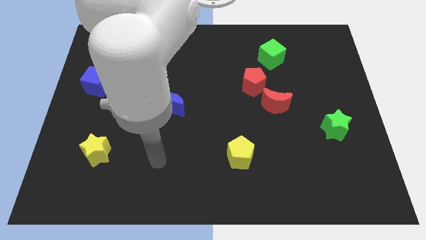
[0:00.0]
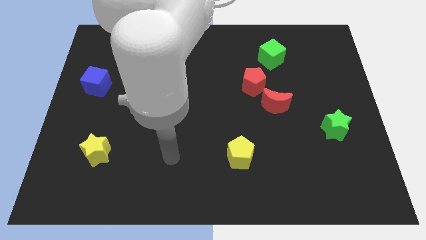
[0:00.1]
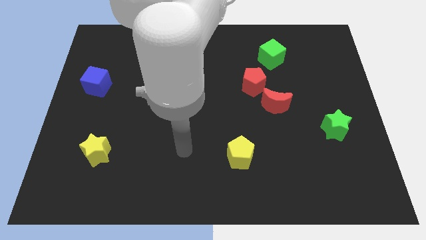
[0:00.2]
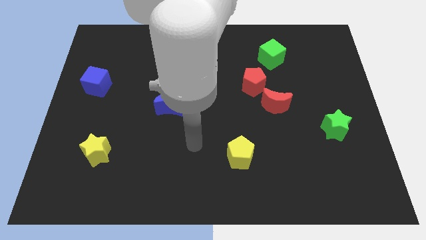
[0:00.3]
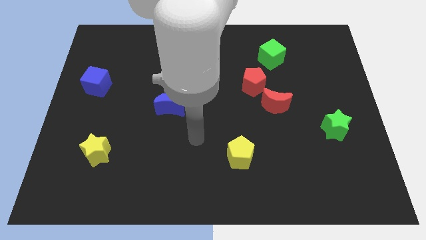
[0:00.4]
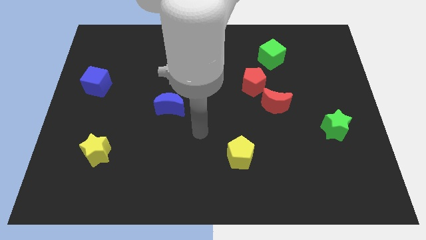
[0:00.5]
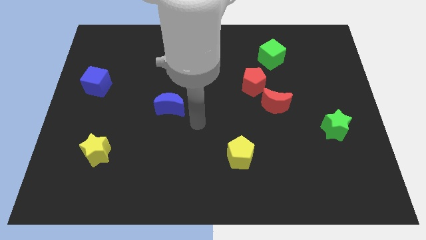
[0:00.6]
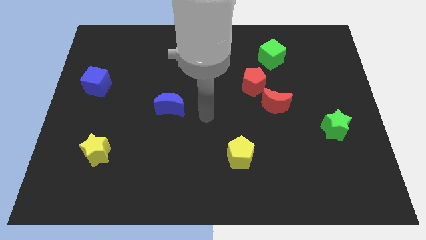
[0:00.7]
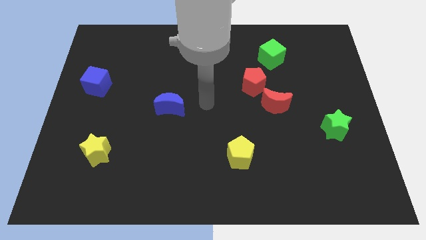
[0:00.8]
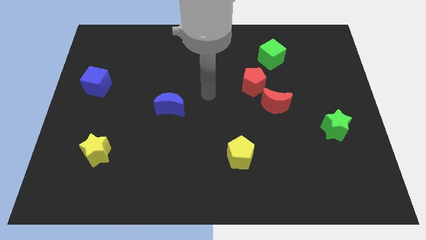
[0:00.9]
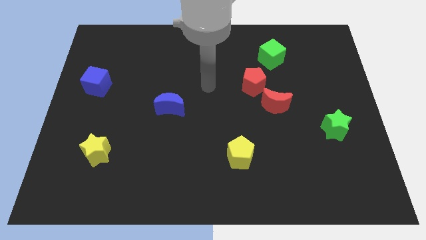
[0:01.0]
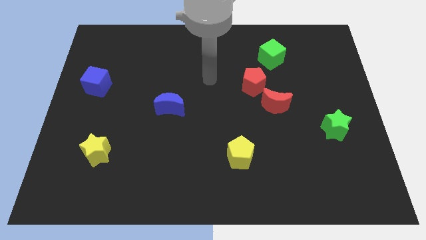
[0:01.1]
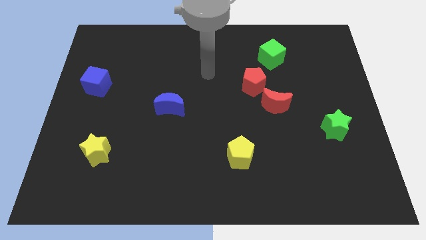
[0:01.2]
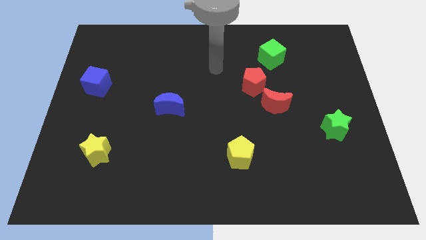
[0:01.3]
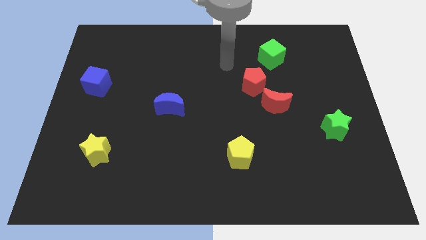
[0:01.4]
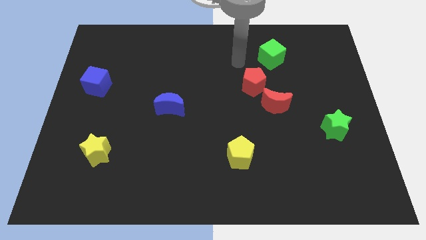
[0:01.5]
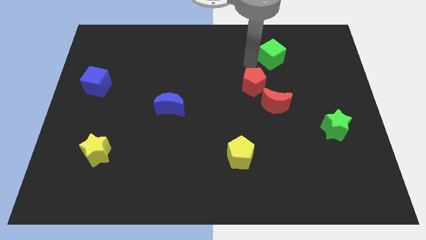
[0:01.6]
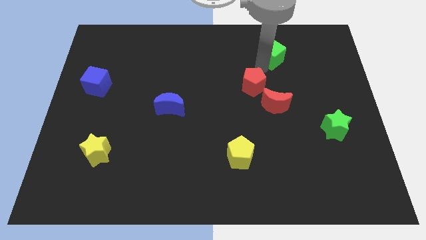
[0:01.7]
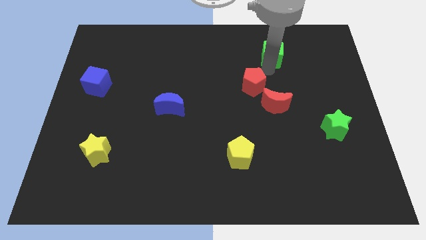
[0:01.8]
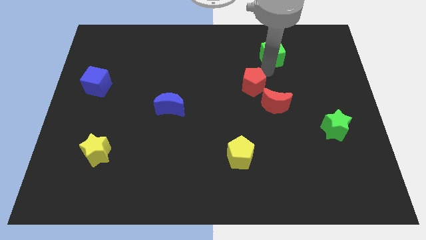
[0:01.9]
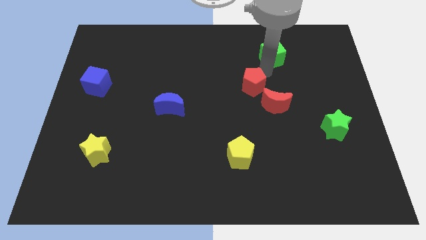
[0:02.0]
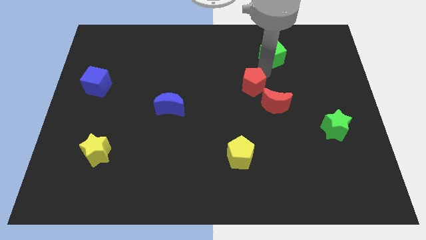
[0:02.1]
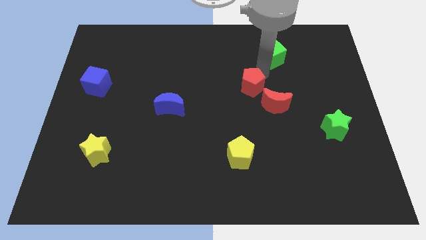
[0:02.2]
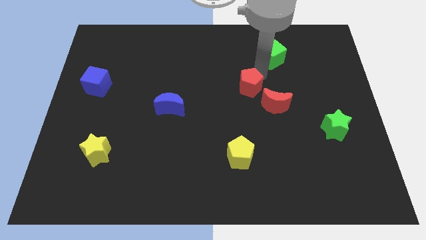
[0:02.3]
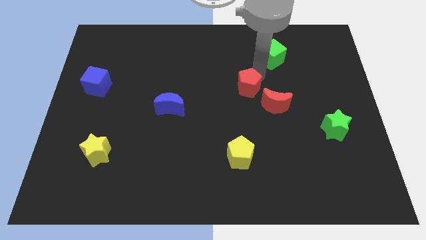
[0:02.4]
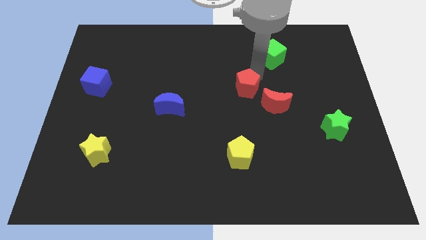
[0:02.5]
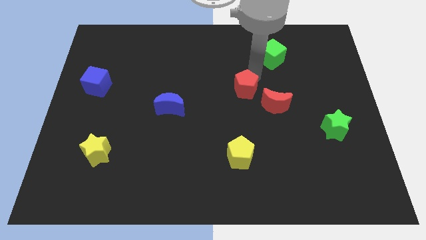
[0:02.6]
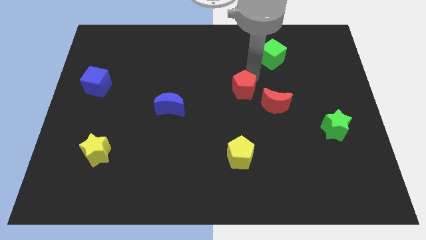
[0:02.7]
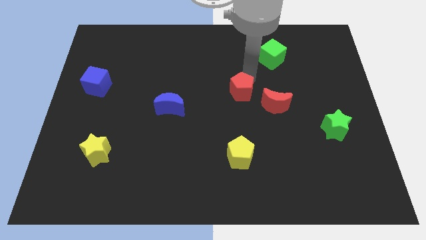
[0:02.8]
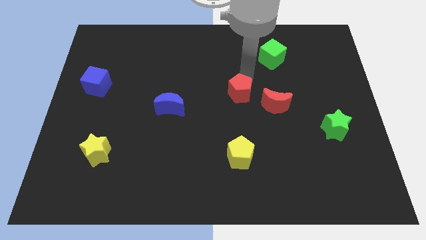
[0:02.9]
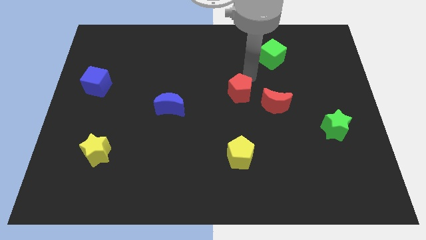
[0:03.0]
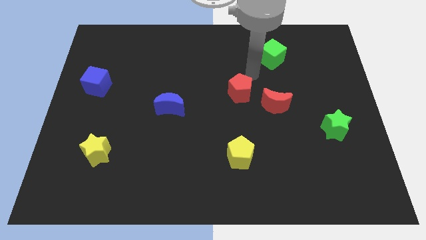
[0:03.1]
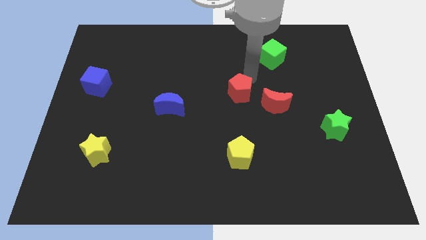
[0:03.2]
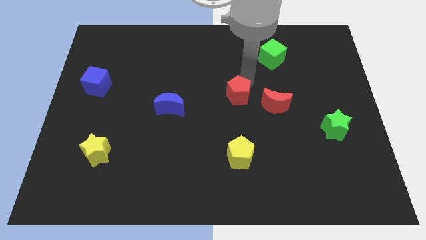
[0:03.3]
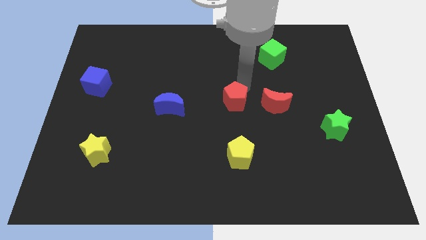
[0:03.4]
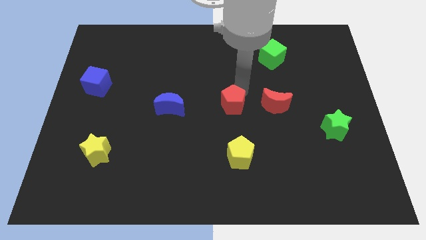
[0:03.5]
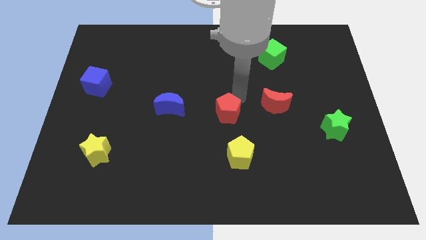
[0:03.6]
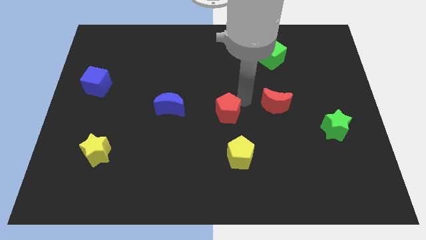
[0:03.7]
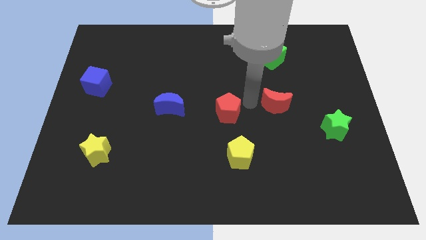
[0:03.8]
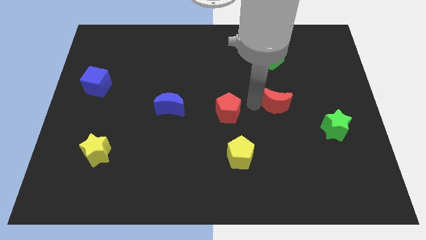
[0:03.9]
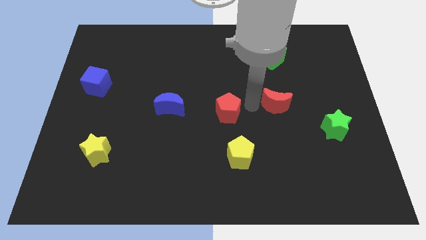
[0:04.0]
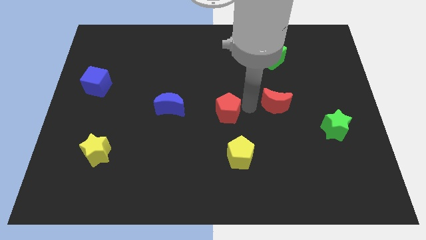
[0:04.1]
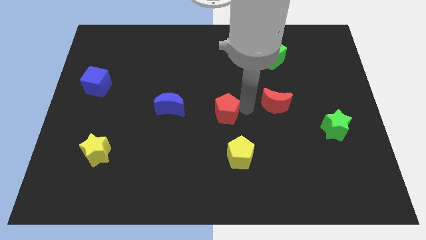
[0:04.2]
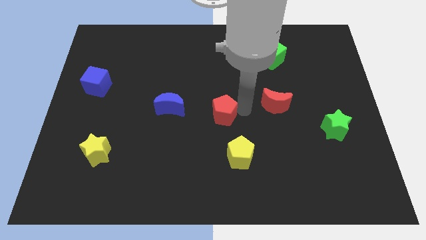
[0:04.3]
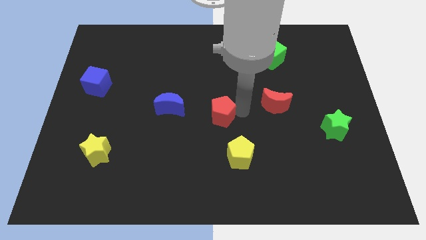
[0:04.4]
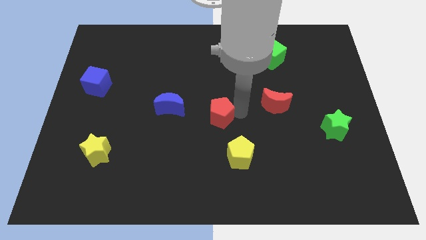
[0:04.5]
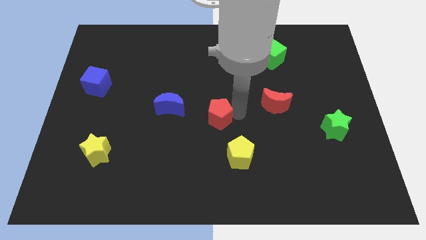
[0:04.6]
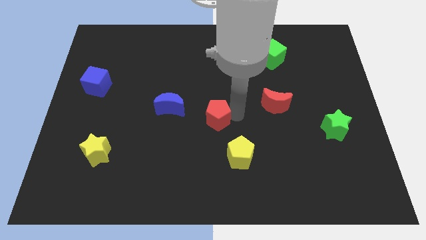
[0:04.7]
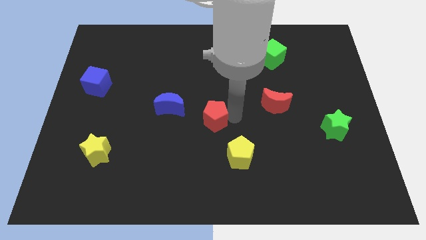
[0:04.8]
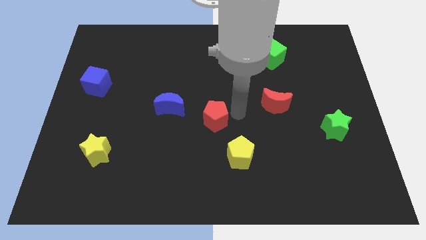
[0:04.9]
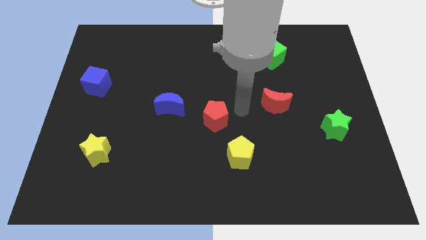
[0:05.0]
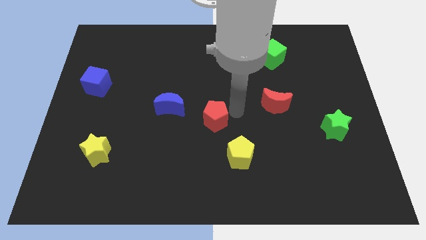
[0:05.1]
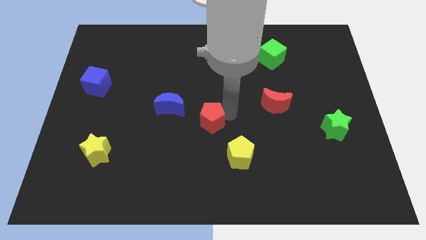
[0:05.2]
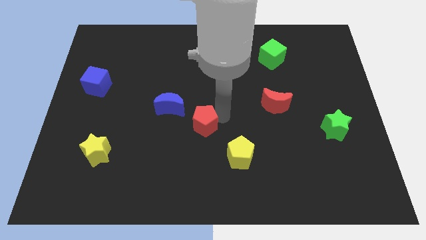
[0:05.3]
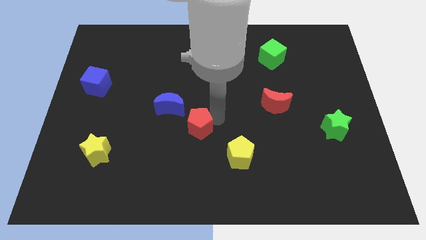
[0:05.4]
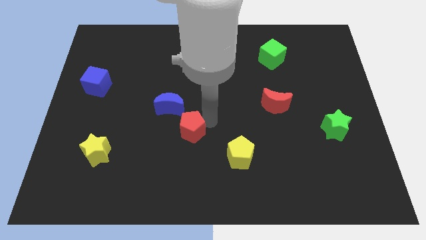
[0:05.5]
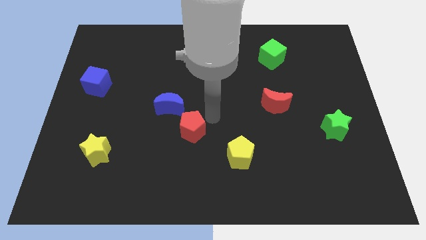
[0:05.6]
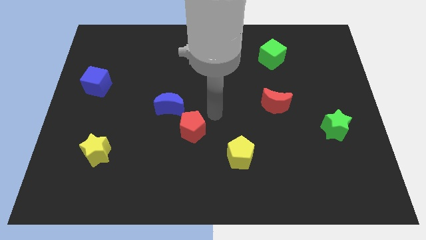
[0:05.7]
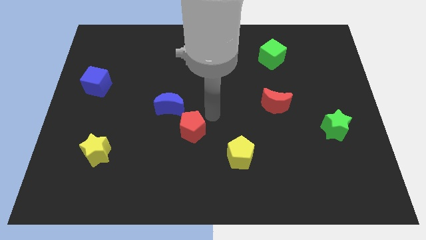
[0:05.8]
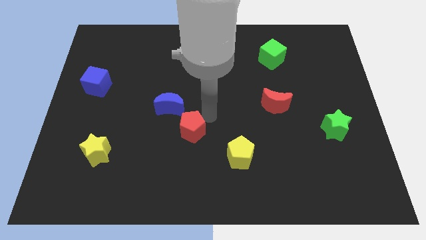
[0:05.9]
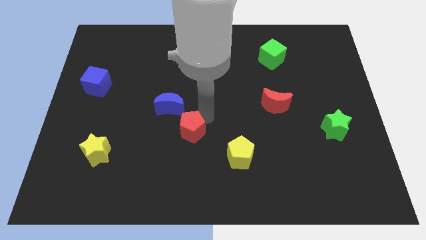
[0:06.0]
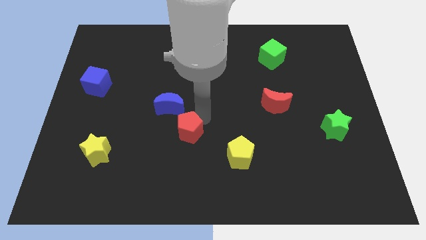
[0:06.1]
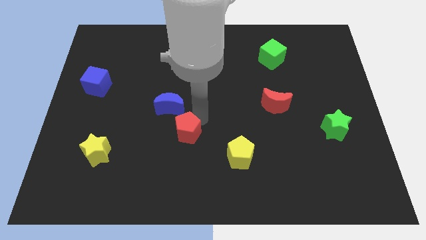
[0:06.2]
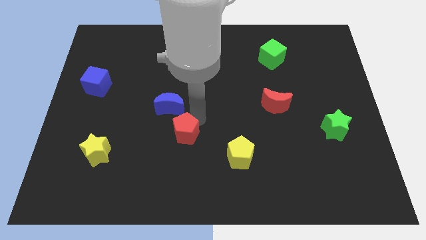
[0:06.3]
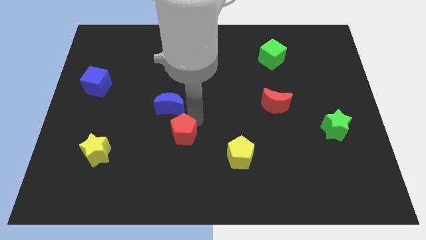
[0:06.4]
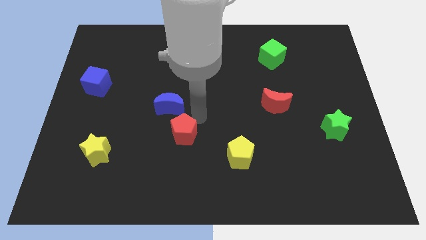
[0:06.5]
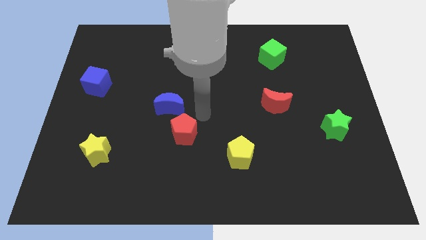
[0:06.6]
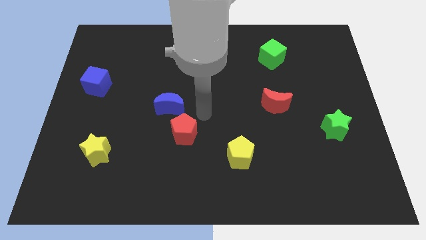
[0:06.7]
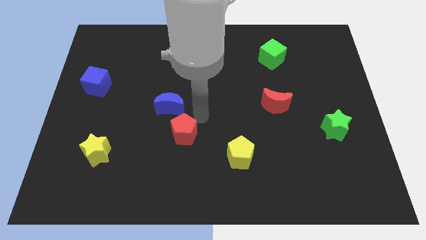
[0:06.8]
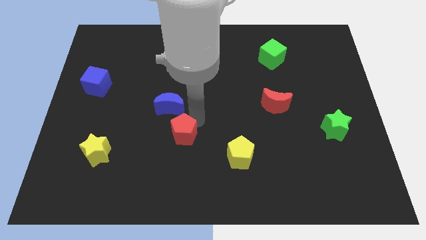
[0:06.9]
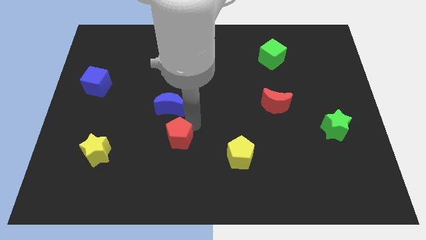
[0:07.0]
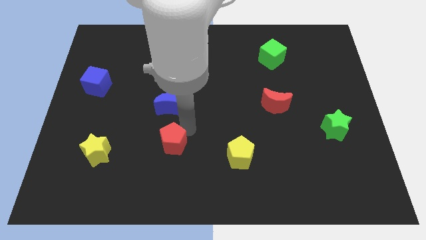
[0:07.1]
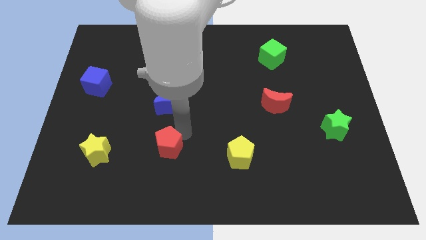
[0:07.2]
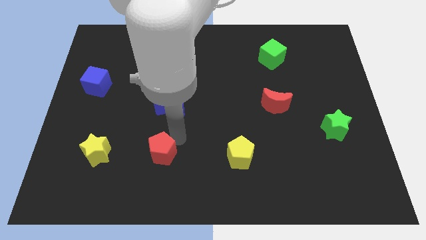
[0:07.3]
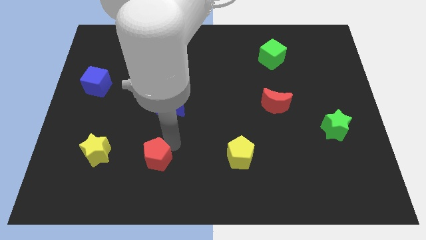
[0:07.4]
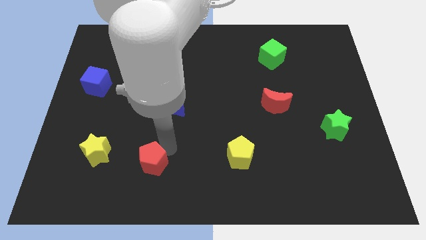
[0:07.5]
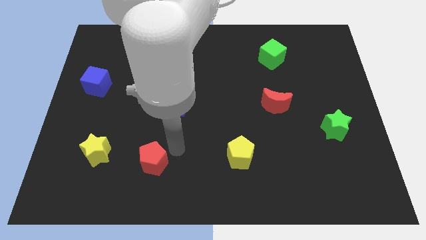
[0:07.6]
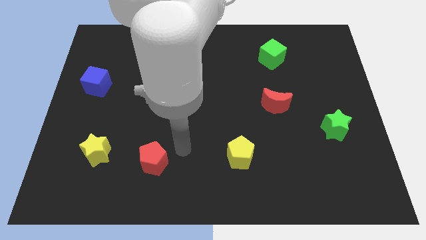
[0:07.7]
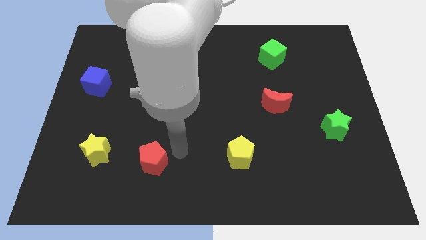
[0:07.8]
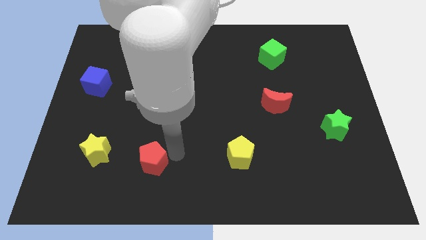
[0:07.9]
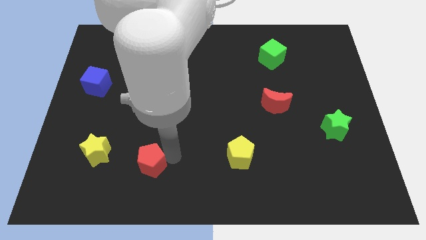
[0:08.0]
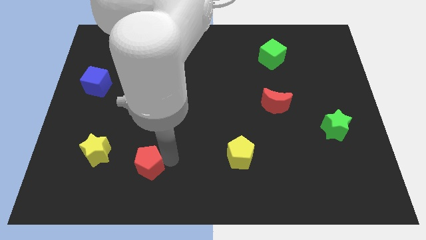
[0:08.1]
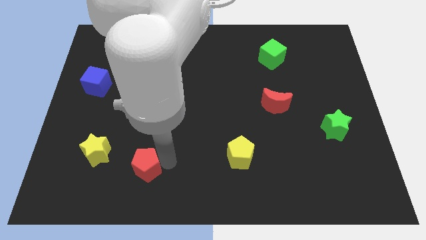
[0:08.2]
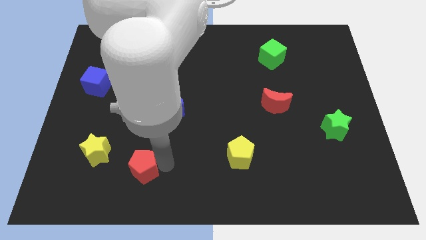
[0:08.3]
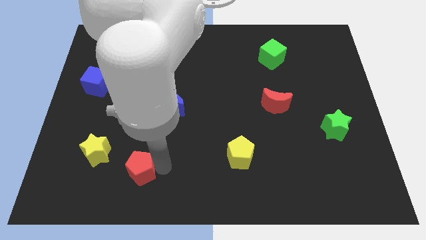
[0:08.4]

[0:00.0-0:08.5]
move the red pentagon to the bottom right of the yellow star
